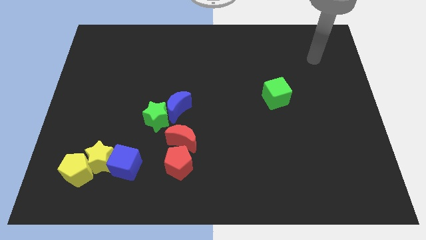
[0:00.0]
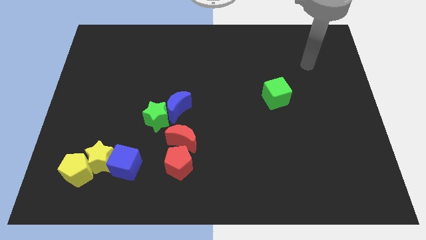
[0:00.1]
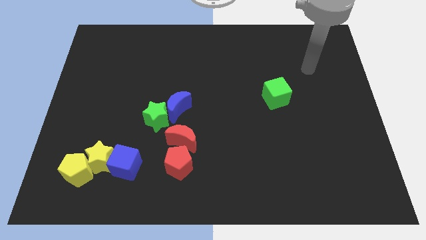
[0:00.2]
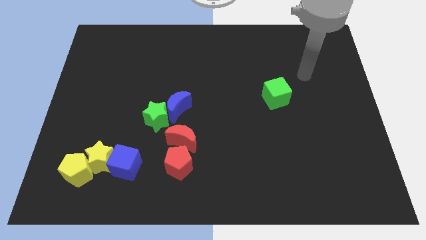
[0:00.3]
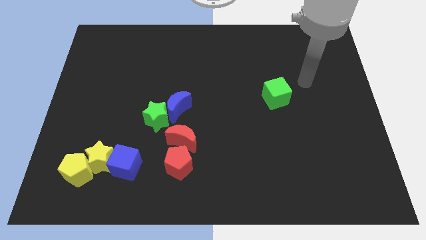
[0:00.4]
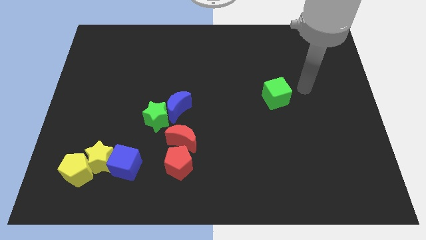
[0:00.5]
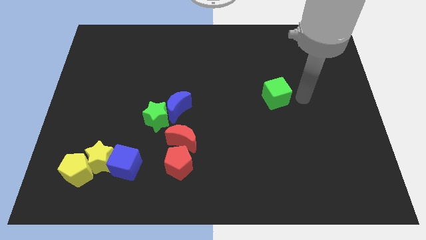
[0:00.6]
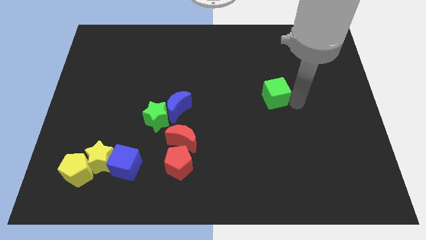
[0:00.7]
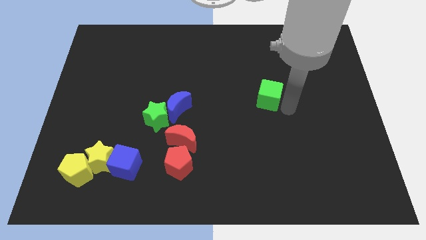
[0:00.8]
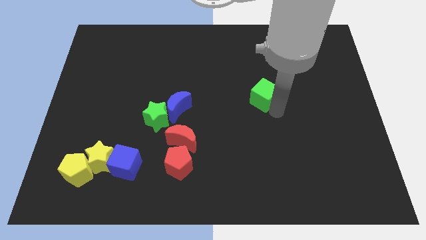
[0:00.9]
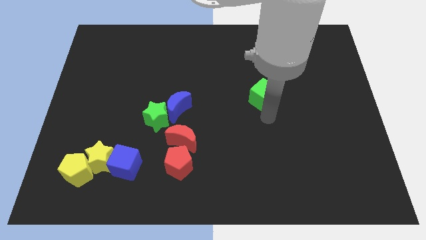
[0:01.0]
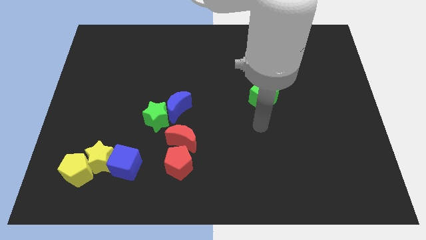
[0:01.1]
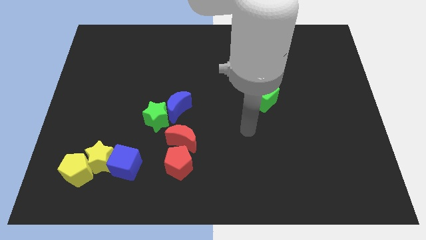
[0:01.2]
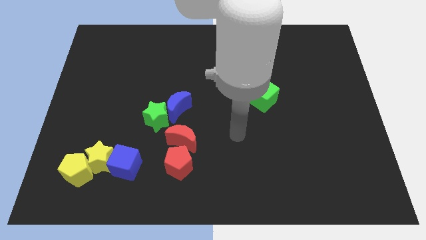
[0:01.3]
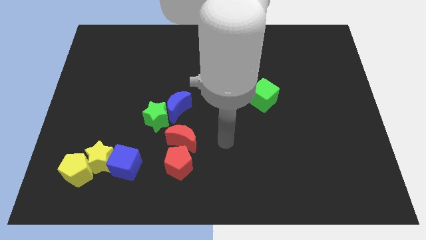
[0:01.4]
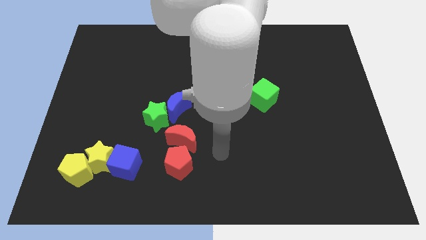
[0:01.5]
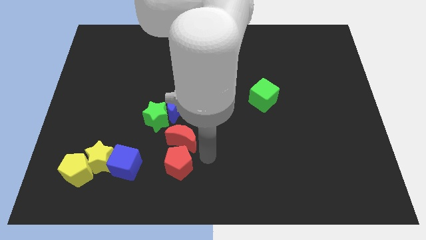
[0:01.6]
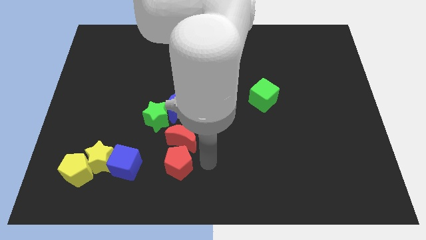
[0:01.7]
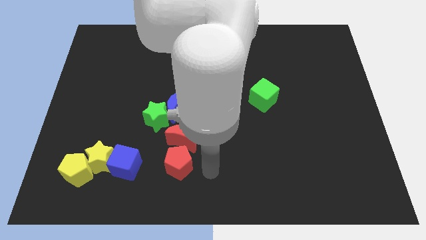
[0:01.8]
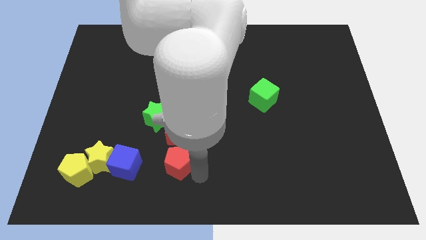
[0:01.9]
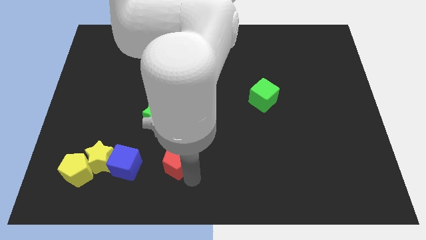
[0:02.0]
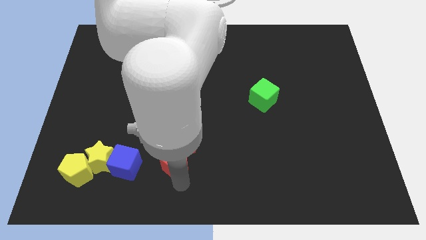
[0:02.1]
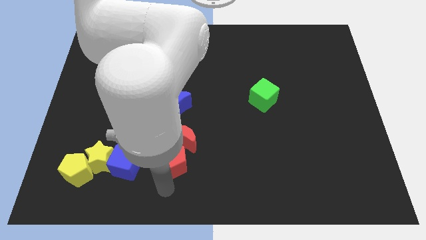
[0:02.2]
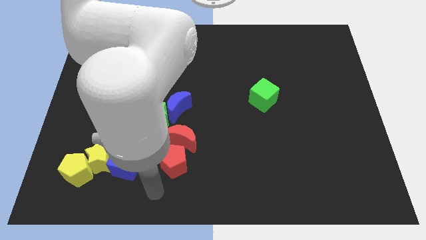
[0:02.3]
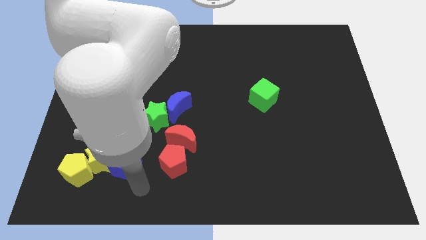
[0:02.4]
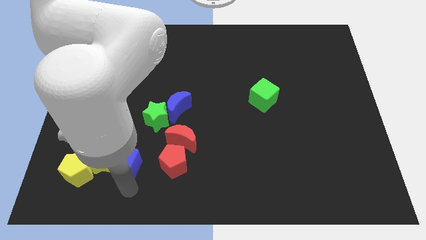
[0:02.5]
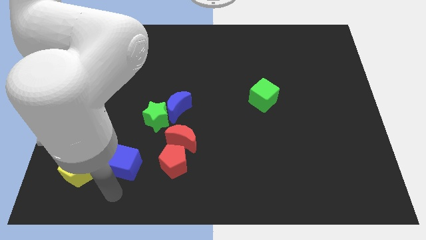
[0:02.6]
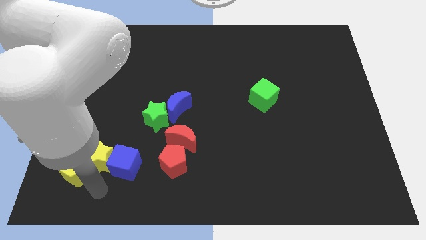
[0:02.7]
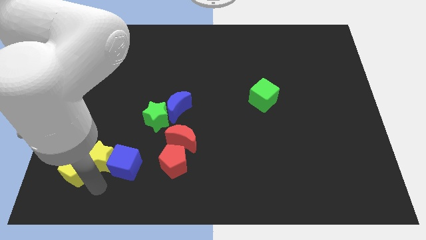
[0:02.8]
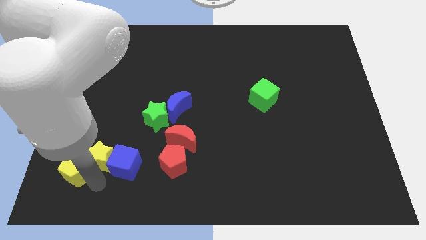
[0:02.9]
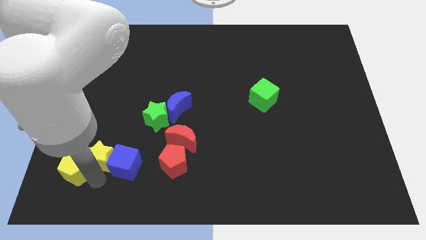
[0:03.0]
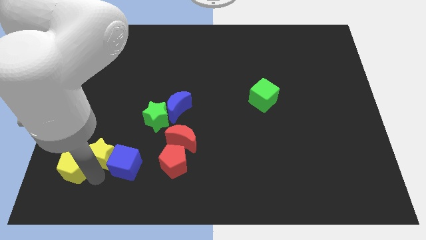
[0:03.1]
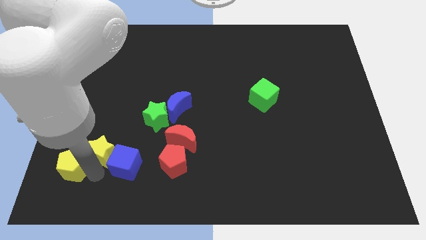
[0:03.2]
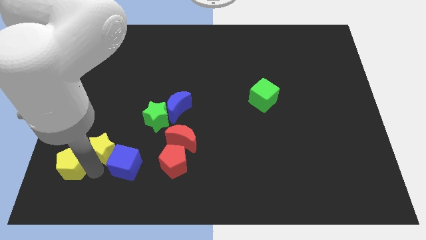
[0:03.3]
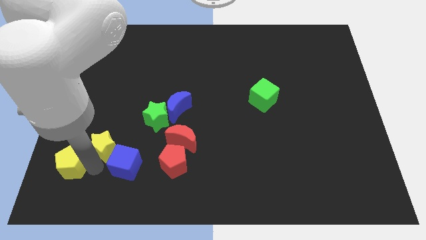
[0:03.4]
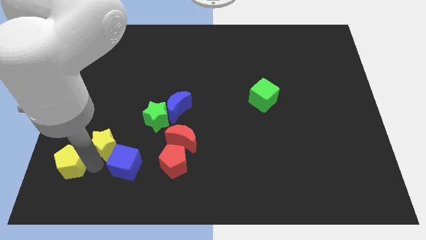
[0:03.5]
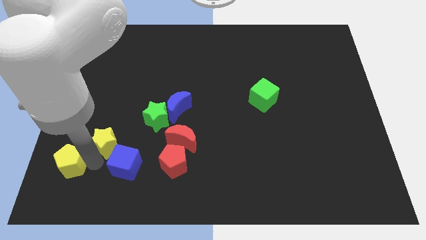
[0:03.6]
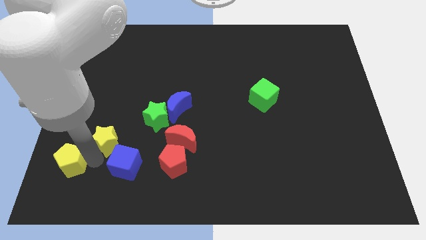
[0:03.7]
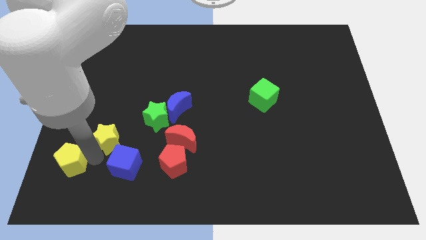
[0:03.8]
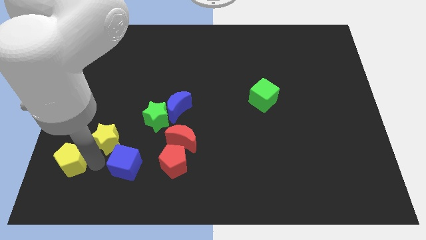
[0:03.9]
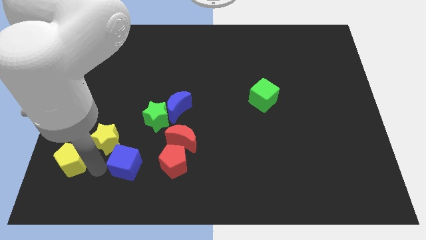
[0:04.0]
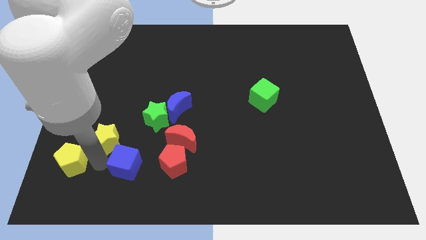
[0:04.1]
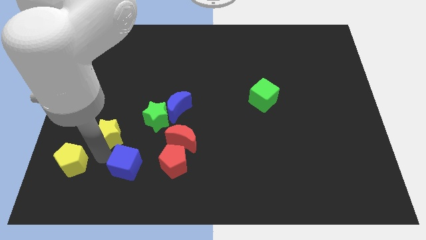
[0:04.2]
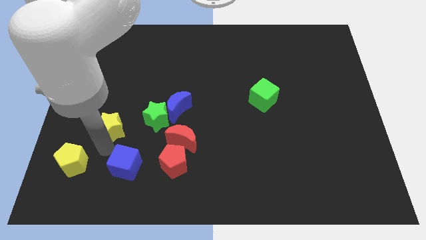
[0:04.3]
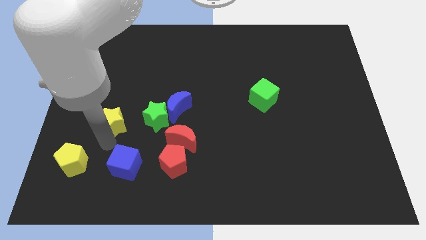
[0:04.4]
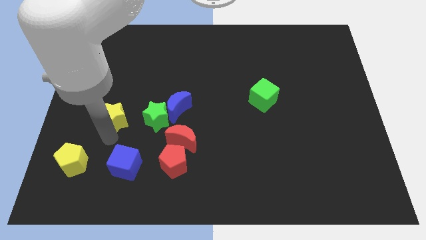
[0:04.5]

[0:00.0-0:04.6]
separate the yellow star from the blue cube and yellow pentagon

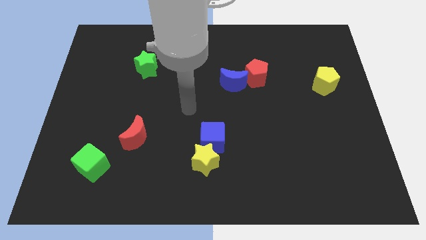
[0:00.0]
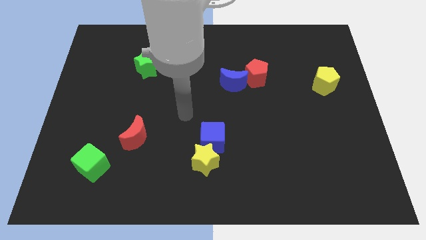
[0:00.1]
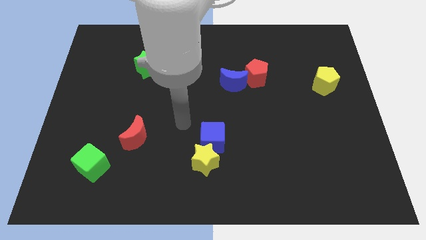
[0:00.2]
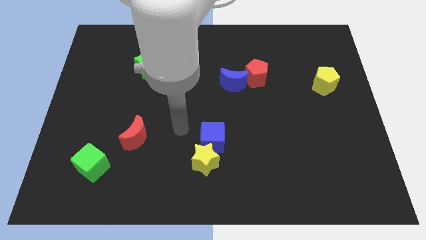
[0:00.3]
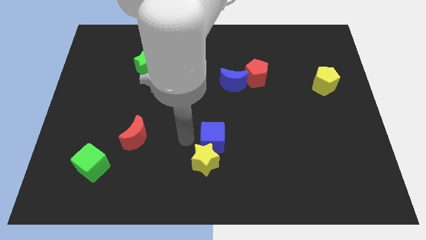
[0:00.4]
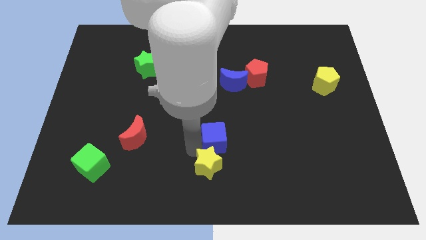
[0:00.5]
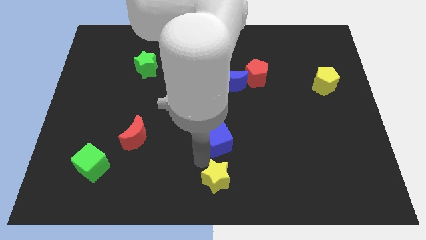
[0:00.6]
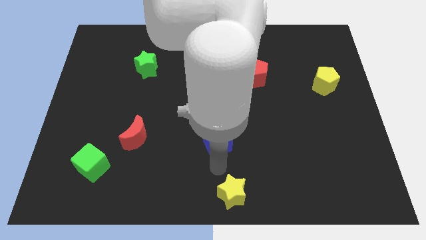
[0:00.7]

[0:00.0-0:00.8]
separate the blue cube from the yellow star

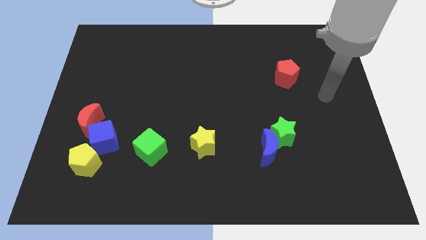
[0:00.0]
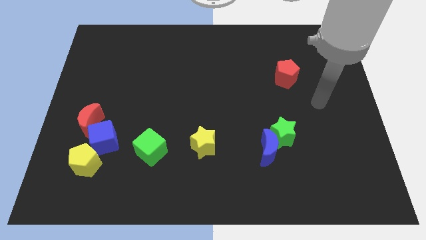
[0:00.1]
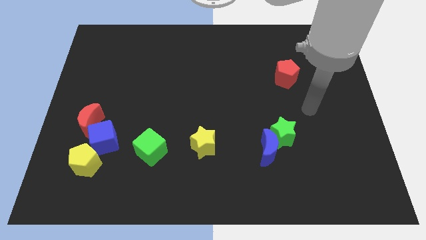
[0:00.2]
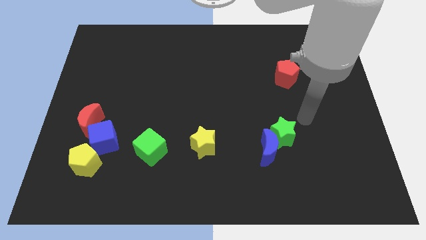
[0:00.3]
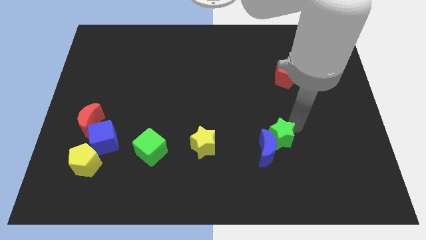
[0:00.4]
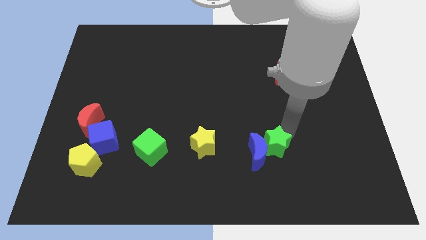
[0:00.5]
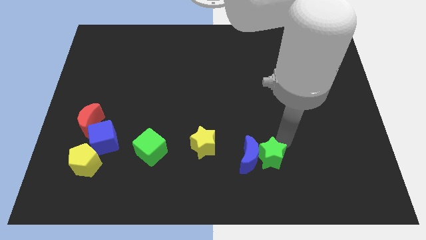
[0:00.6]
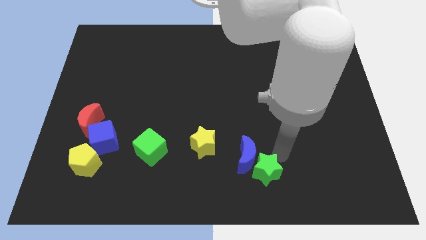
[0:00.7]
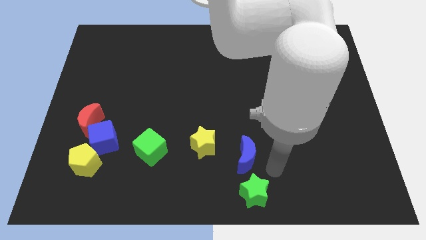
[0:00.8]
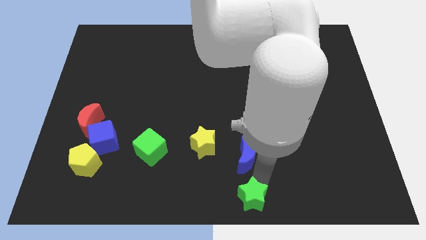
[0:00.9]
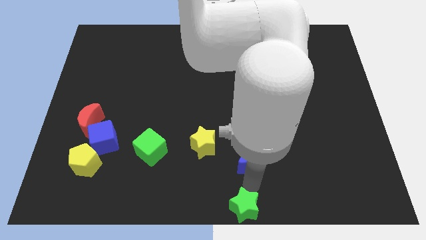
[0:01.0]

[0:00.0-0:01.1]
separate the blue moon from the green star

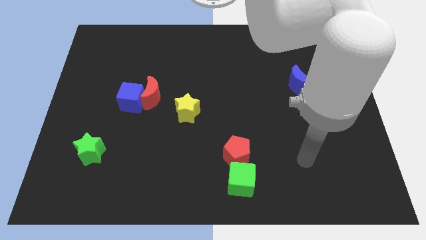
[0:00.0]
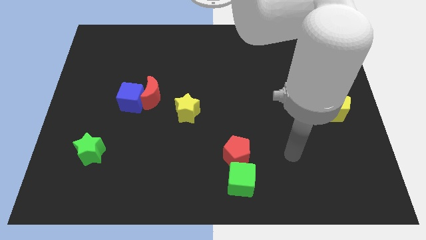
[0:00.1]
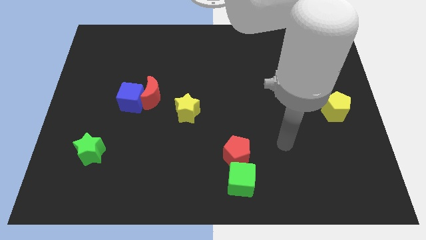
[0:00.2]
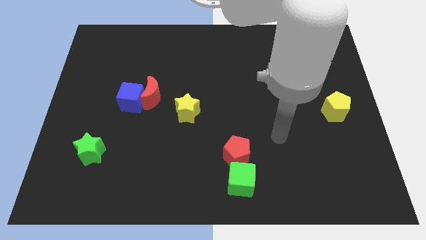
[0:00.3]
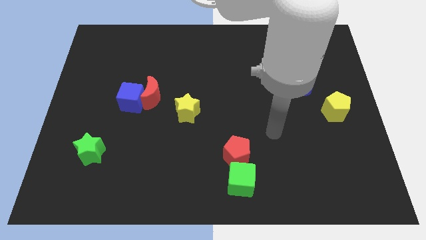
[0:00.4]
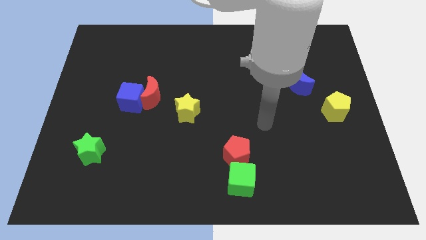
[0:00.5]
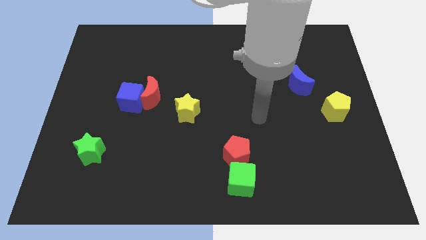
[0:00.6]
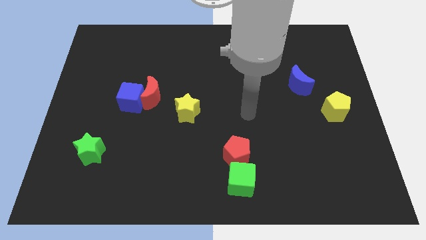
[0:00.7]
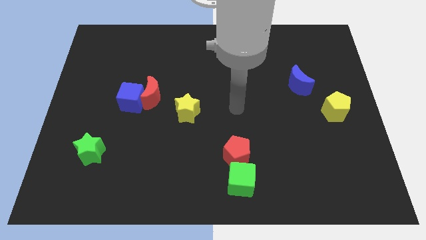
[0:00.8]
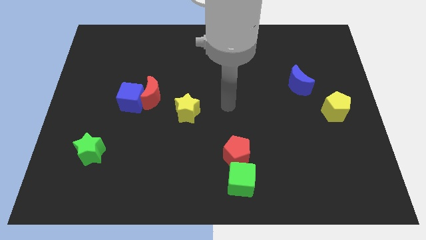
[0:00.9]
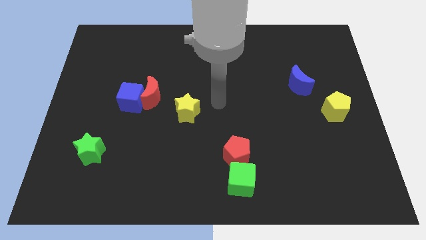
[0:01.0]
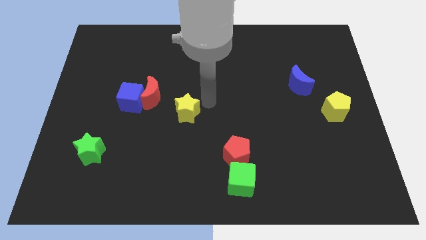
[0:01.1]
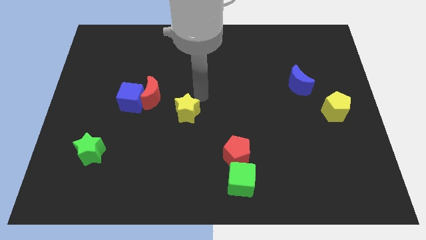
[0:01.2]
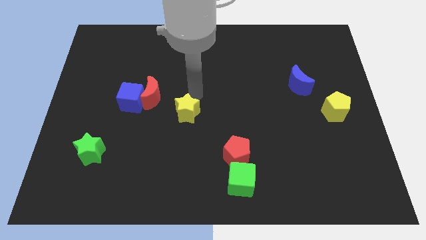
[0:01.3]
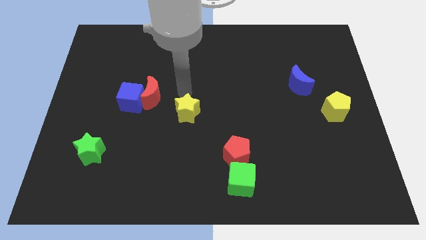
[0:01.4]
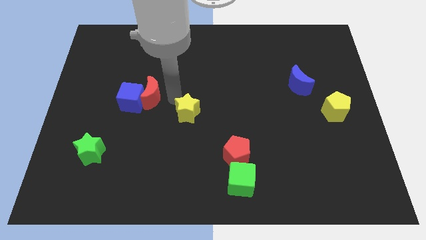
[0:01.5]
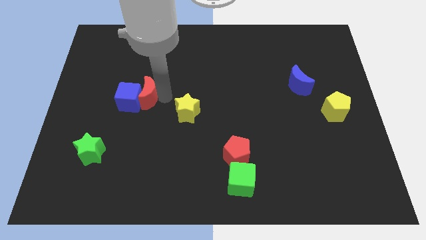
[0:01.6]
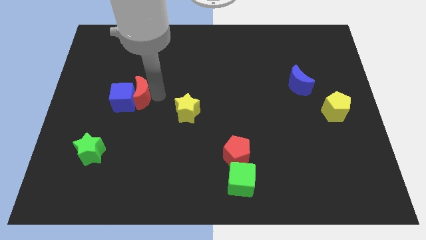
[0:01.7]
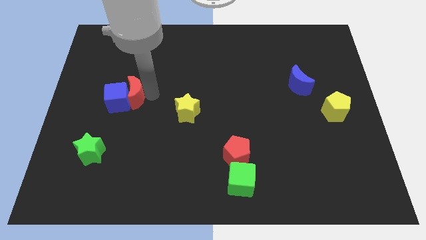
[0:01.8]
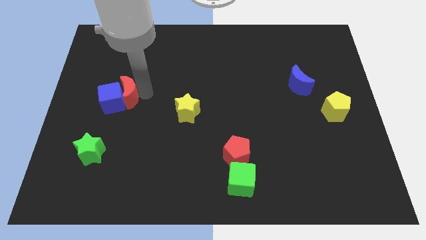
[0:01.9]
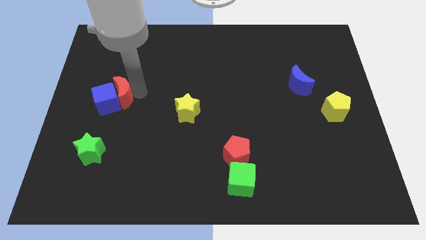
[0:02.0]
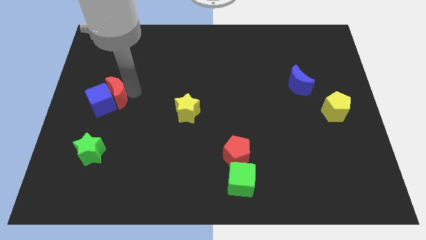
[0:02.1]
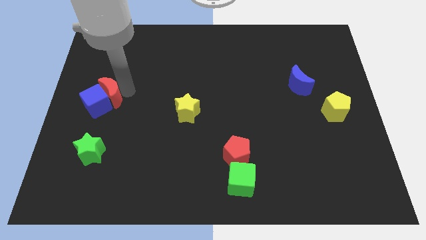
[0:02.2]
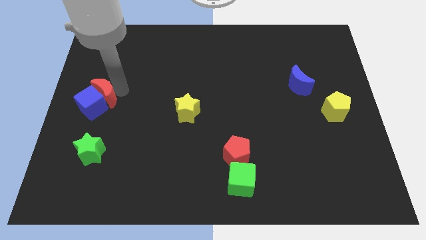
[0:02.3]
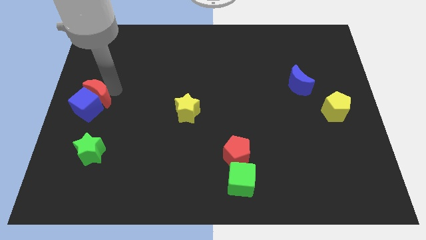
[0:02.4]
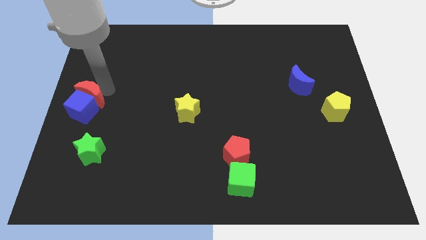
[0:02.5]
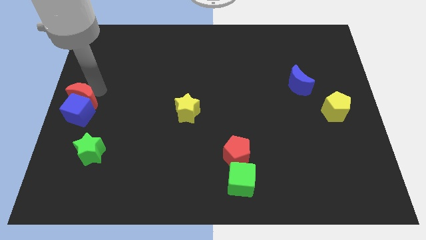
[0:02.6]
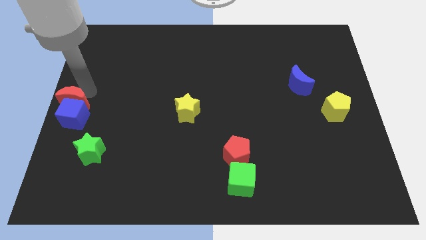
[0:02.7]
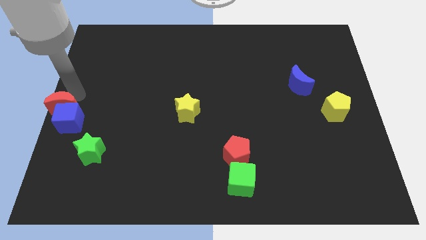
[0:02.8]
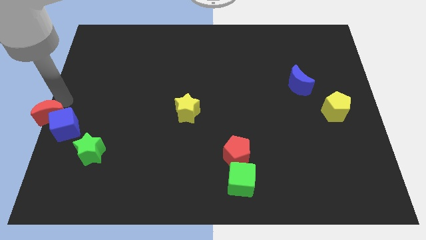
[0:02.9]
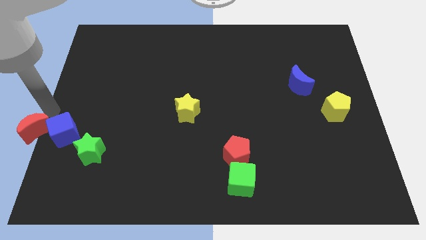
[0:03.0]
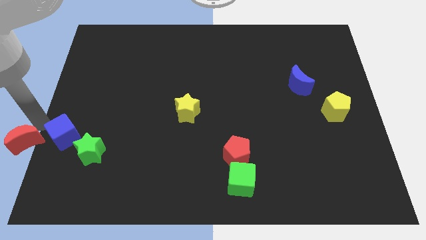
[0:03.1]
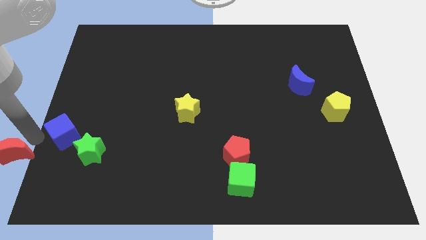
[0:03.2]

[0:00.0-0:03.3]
pull the blue cube apart from the red moon
